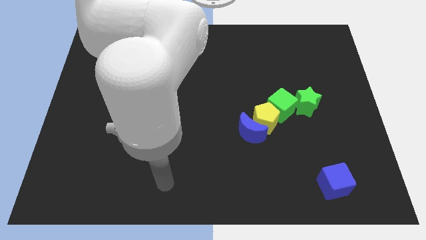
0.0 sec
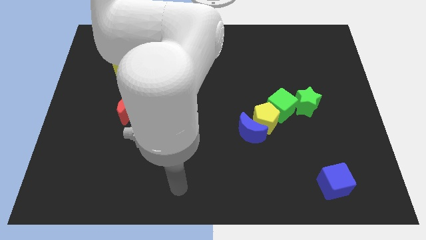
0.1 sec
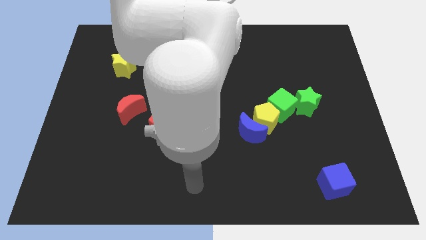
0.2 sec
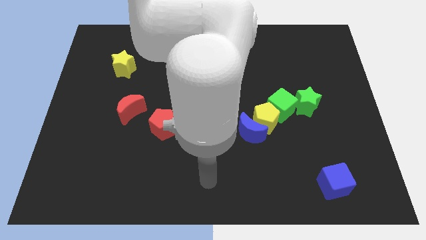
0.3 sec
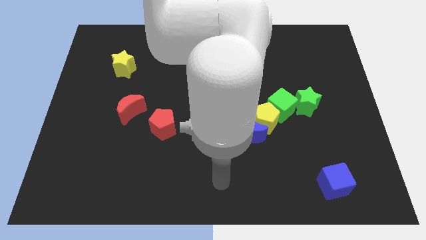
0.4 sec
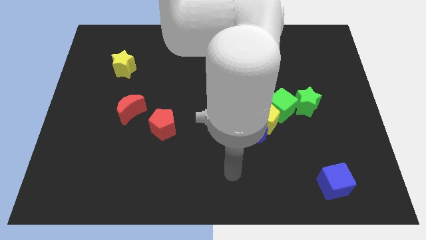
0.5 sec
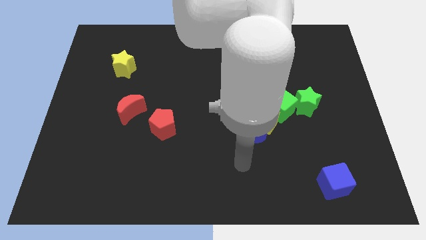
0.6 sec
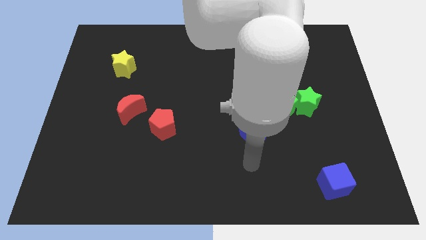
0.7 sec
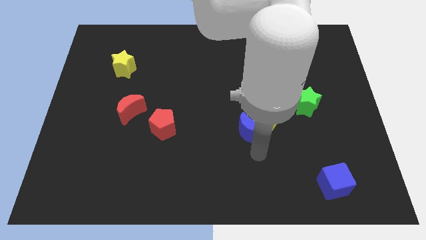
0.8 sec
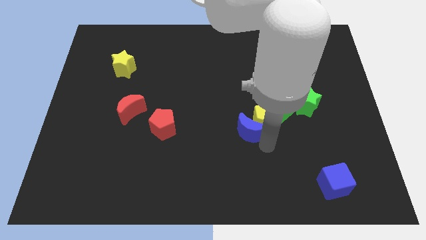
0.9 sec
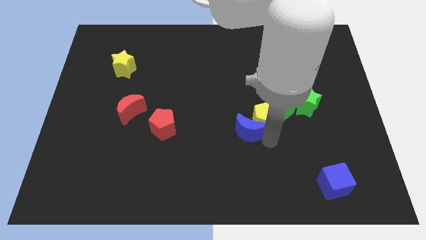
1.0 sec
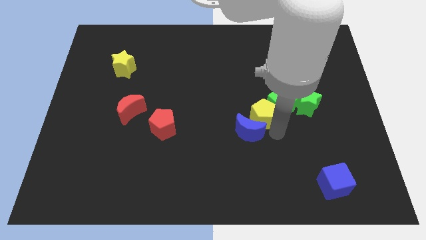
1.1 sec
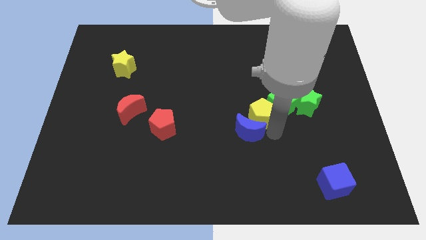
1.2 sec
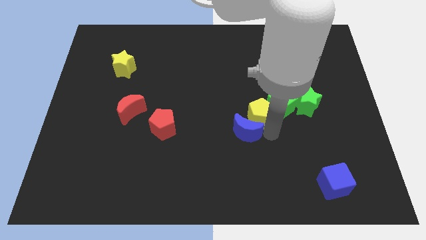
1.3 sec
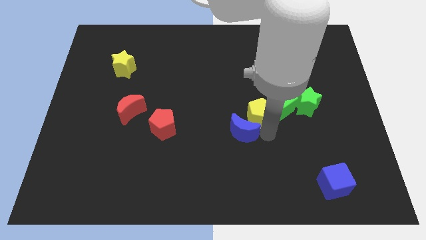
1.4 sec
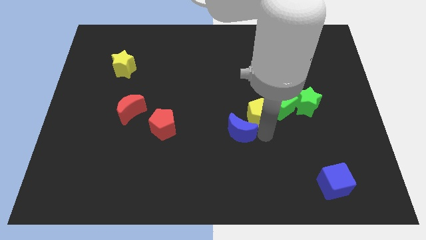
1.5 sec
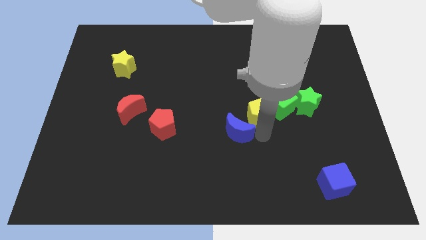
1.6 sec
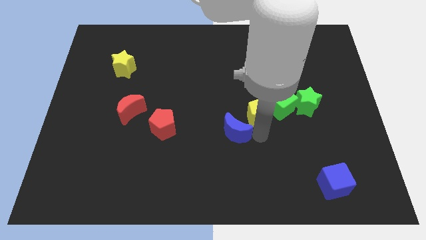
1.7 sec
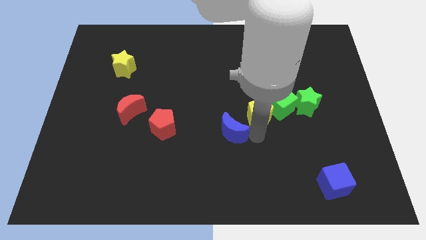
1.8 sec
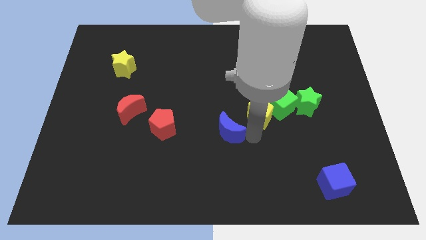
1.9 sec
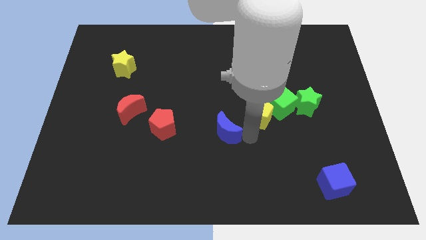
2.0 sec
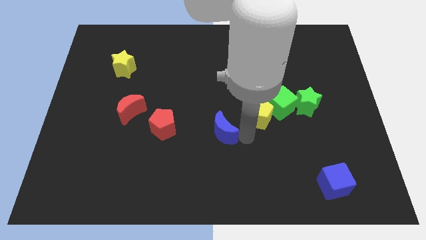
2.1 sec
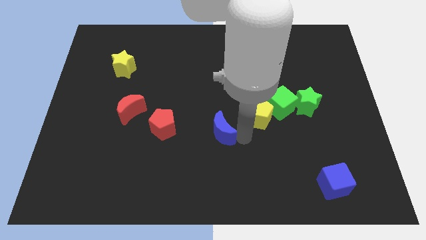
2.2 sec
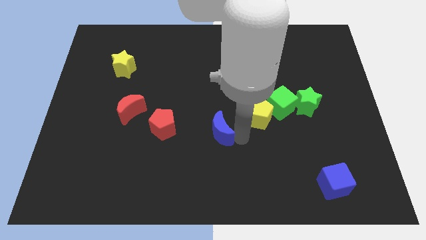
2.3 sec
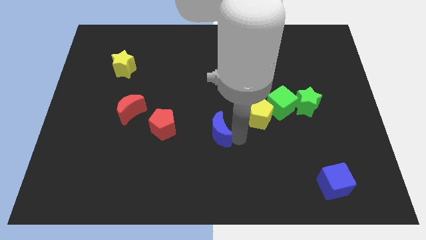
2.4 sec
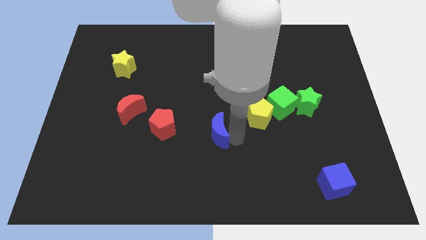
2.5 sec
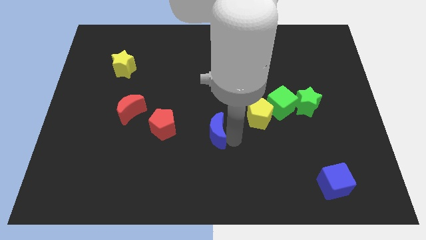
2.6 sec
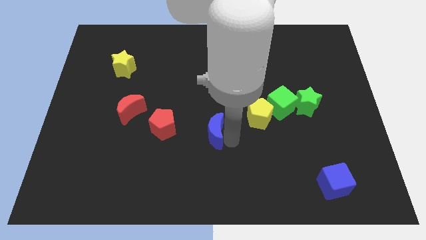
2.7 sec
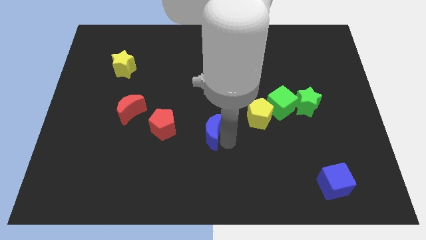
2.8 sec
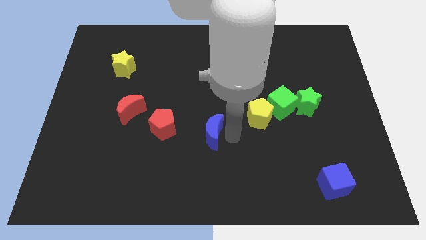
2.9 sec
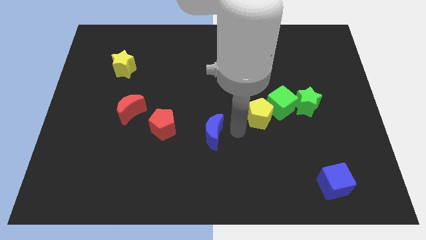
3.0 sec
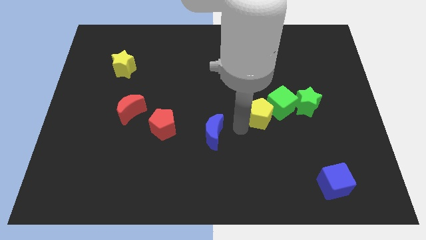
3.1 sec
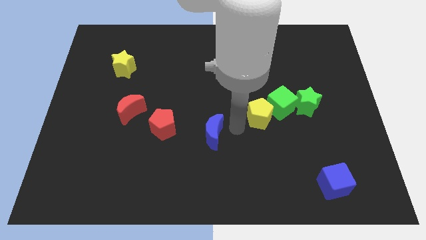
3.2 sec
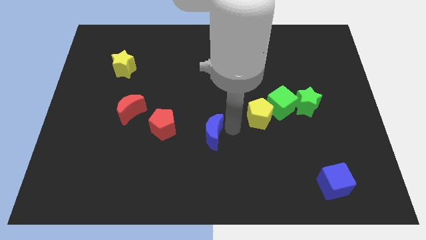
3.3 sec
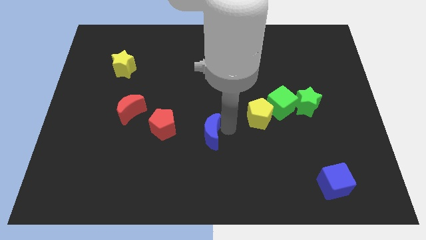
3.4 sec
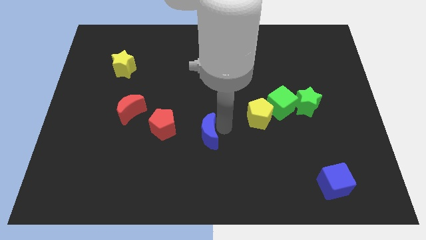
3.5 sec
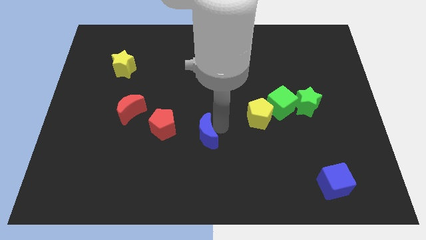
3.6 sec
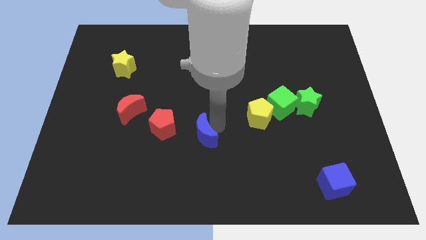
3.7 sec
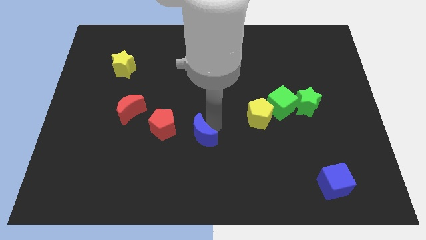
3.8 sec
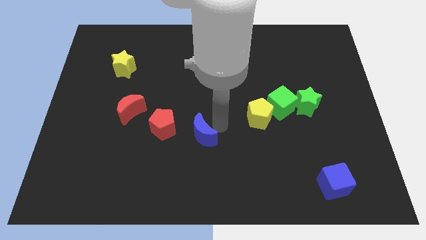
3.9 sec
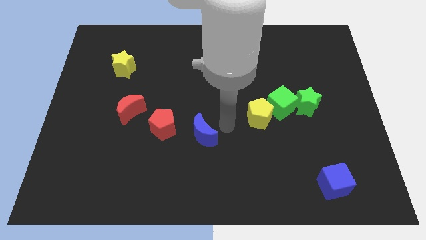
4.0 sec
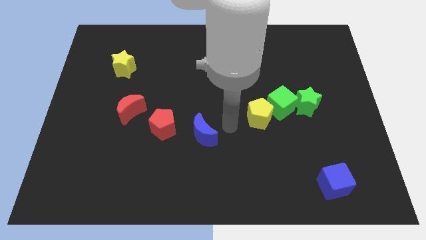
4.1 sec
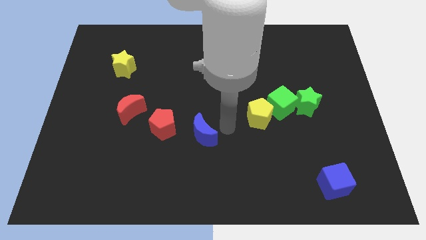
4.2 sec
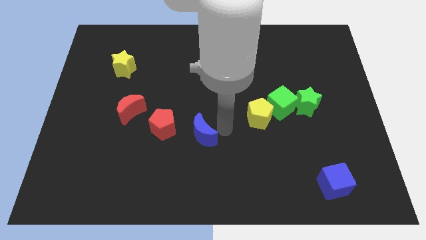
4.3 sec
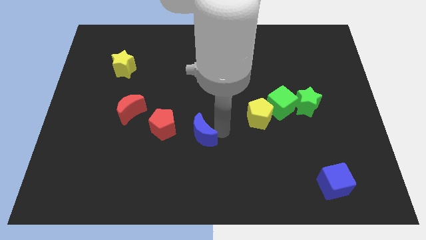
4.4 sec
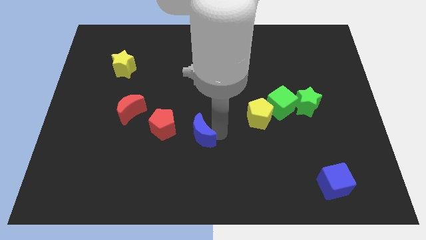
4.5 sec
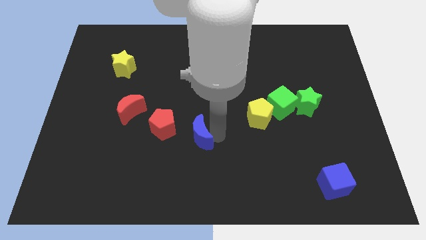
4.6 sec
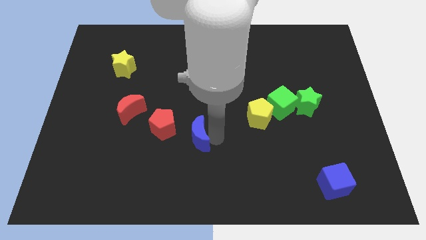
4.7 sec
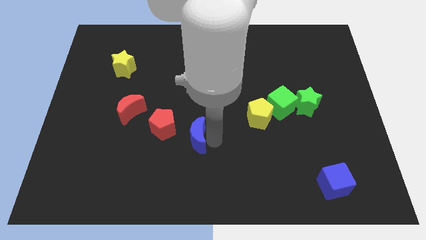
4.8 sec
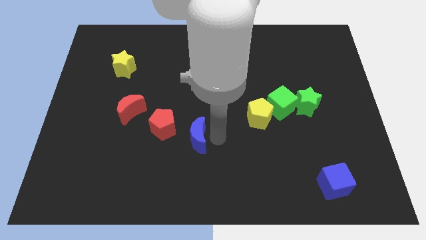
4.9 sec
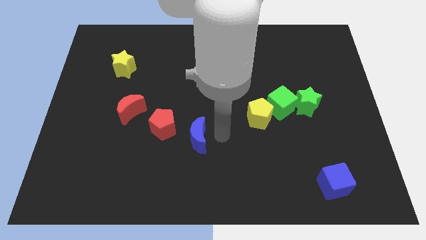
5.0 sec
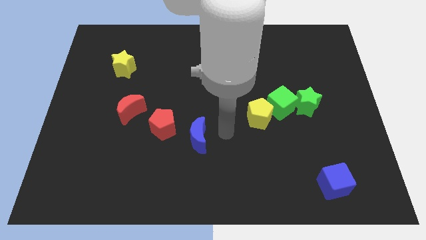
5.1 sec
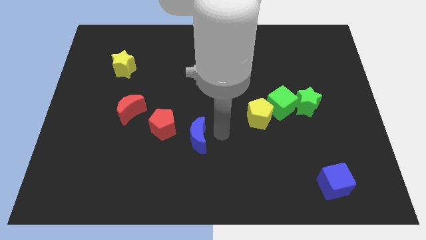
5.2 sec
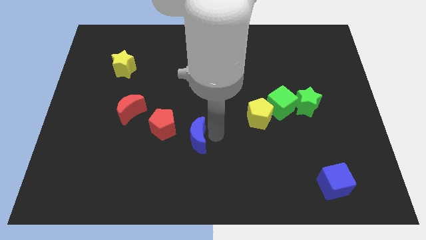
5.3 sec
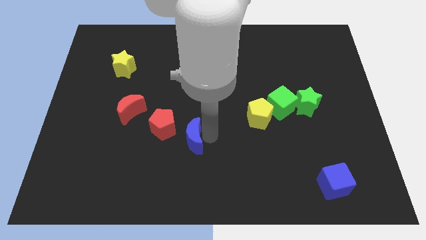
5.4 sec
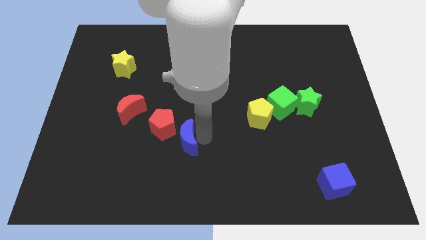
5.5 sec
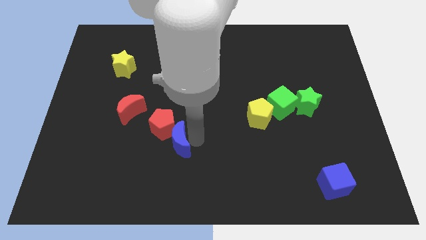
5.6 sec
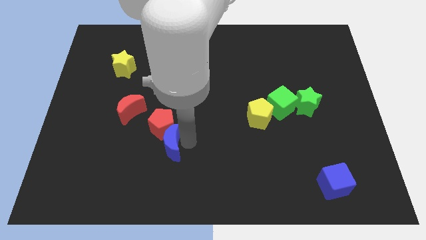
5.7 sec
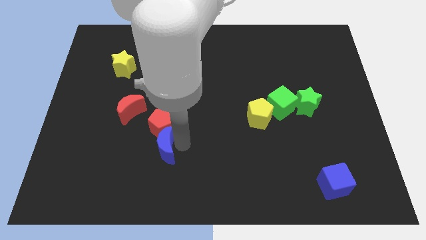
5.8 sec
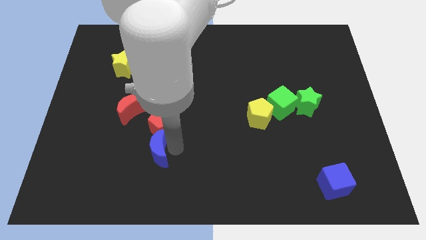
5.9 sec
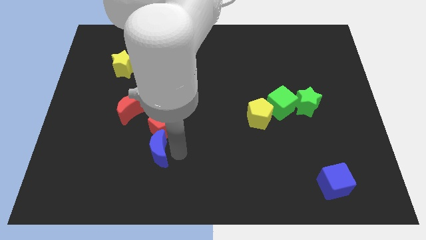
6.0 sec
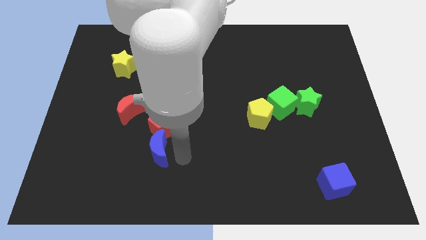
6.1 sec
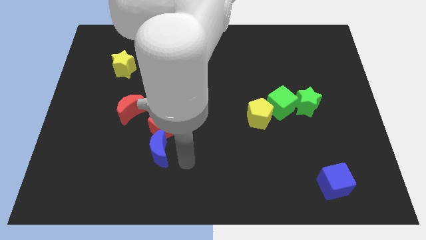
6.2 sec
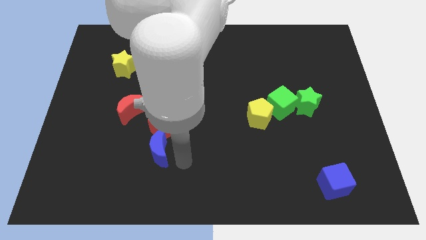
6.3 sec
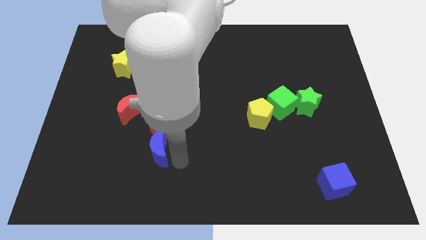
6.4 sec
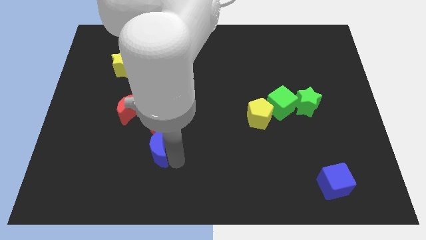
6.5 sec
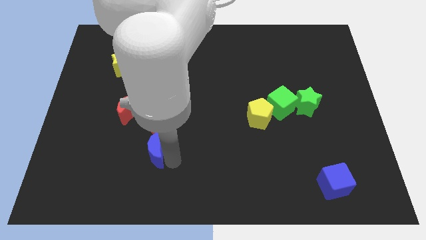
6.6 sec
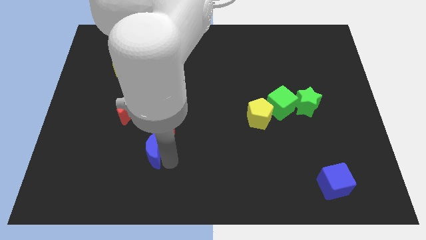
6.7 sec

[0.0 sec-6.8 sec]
slide the blue moon to the left

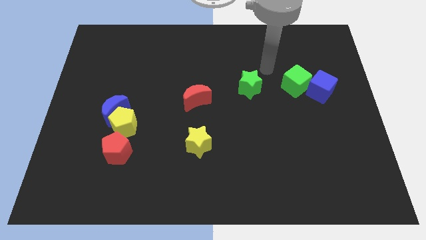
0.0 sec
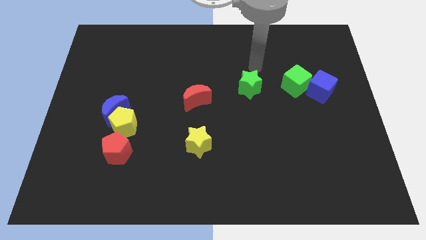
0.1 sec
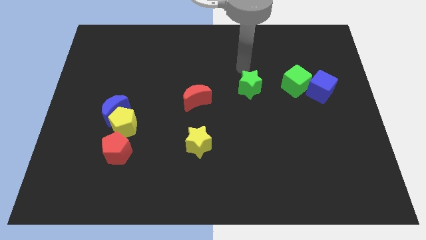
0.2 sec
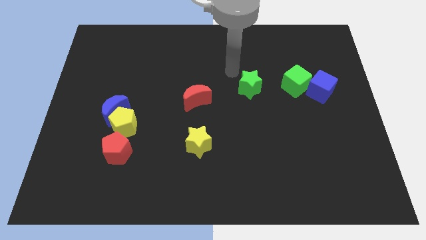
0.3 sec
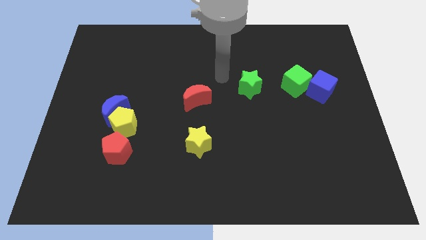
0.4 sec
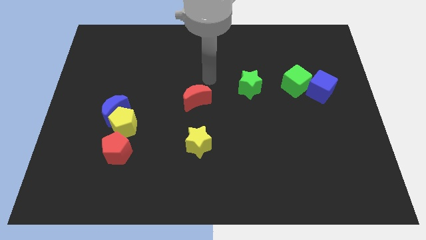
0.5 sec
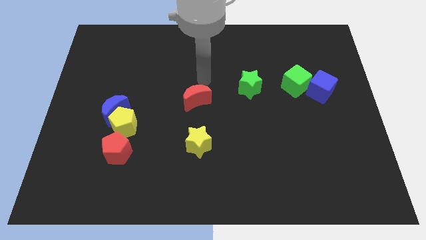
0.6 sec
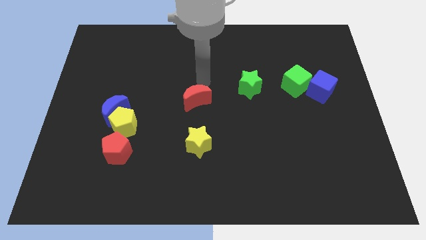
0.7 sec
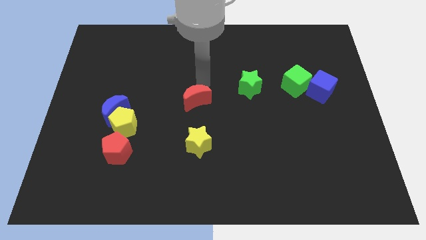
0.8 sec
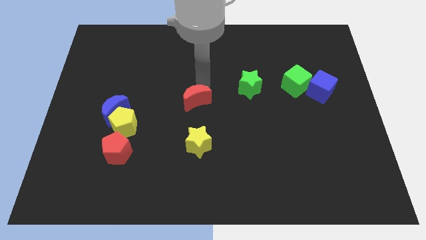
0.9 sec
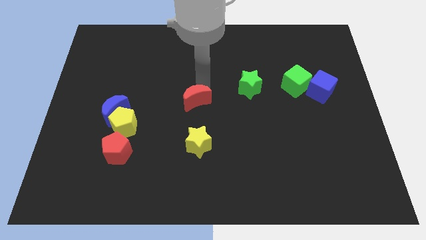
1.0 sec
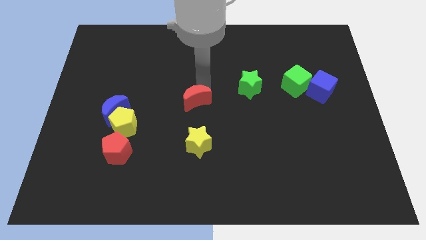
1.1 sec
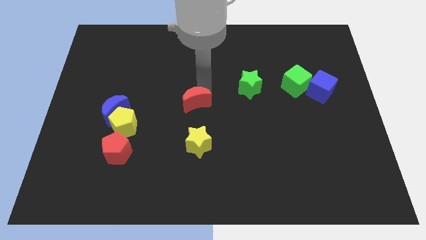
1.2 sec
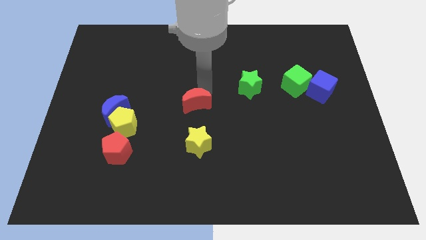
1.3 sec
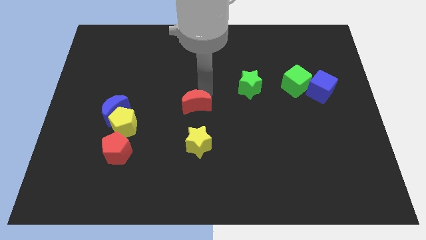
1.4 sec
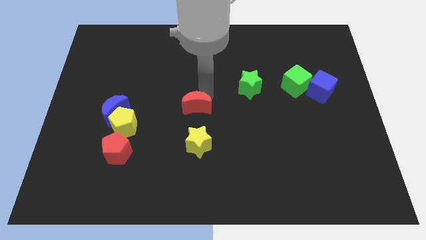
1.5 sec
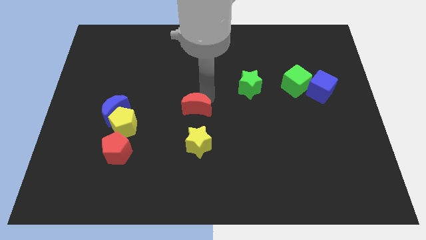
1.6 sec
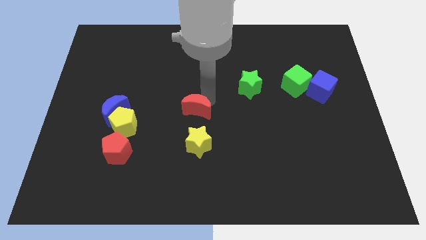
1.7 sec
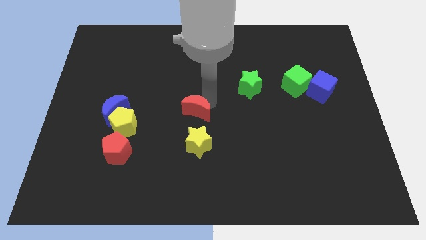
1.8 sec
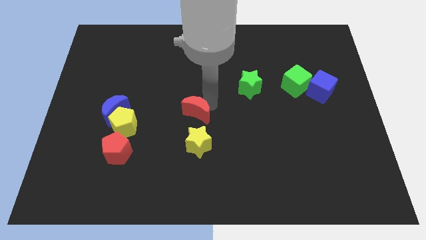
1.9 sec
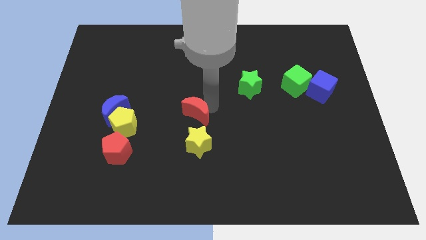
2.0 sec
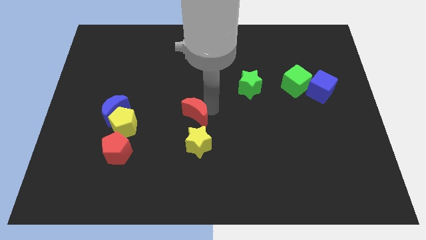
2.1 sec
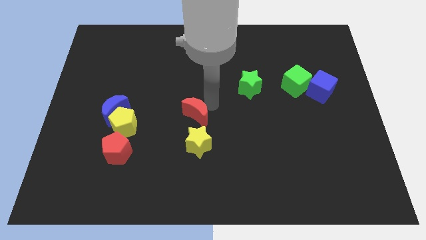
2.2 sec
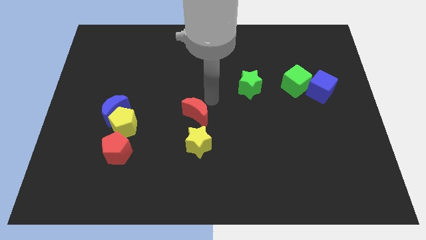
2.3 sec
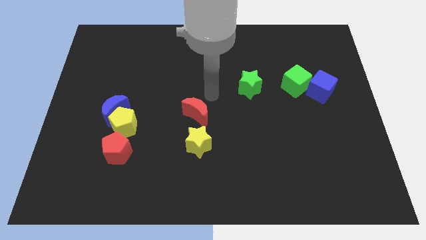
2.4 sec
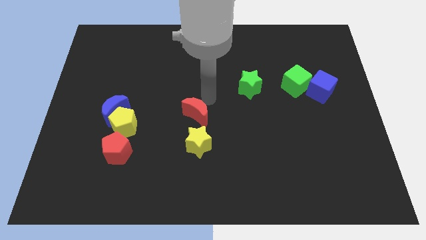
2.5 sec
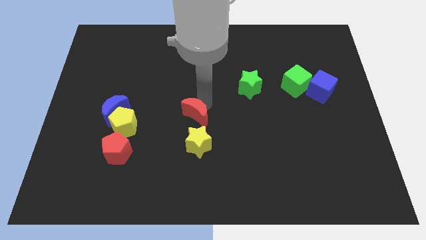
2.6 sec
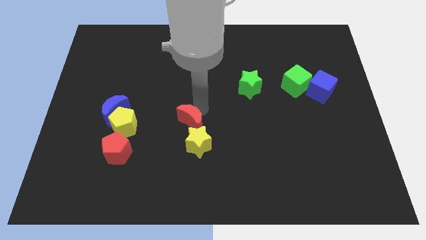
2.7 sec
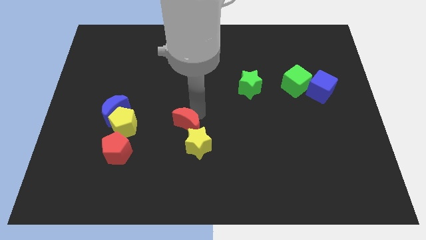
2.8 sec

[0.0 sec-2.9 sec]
slide the red moon a little bit downwards
